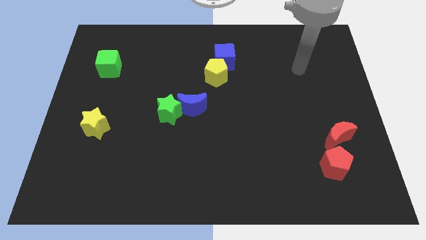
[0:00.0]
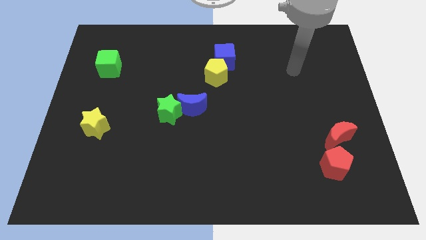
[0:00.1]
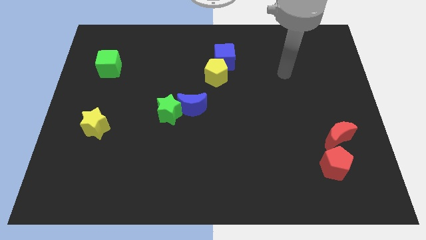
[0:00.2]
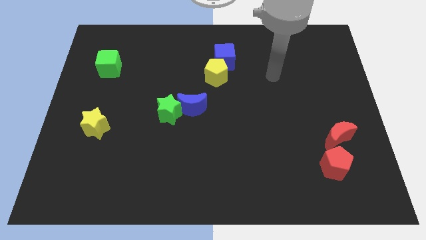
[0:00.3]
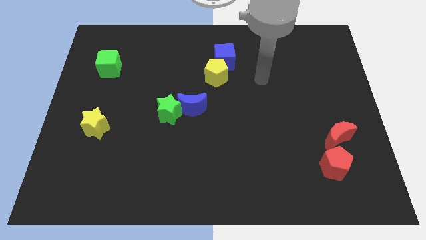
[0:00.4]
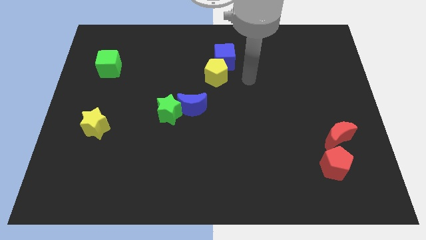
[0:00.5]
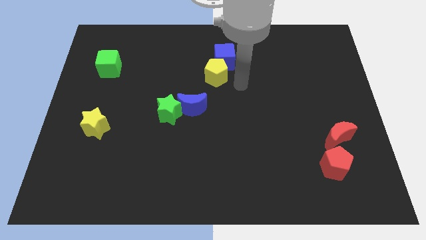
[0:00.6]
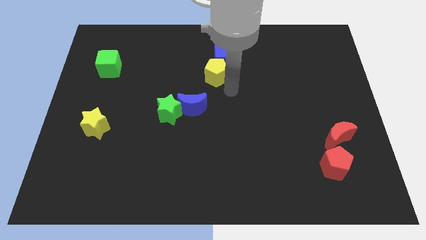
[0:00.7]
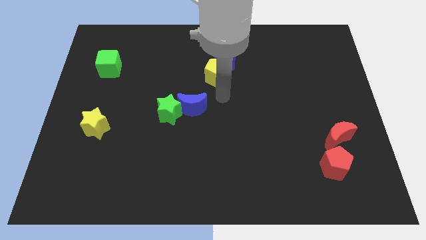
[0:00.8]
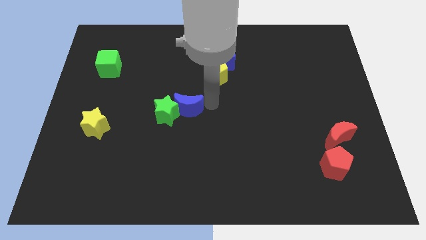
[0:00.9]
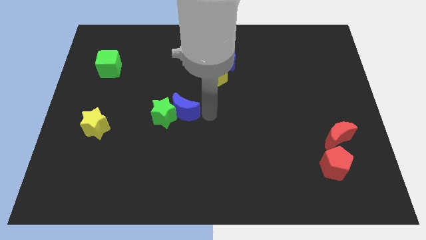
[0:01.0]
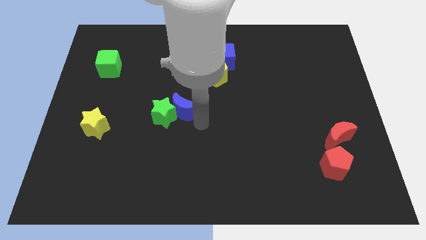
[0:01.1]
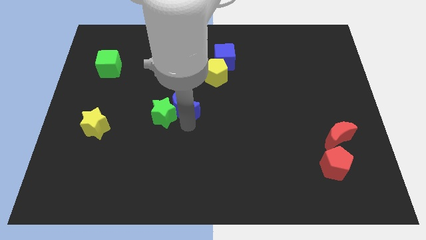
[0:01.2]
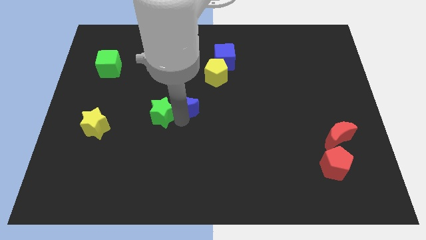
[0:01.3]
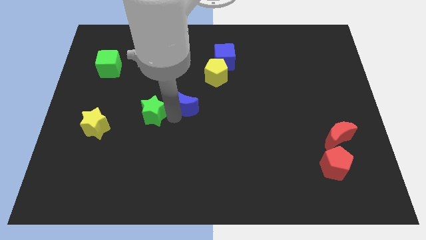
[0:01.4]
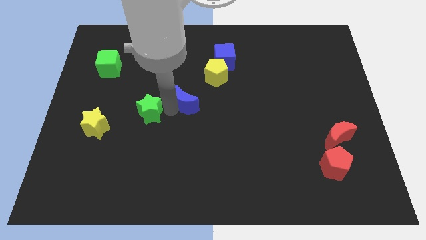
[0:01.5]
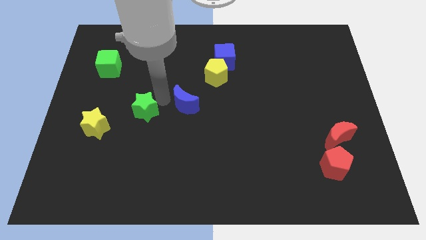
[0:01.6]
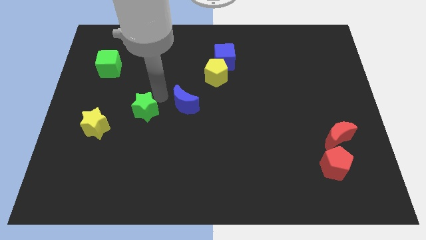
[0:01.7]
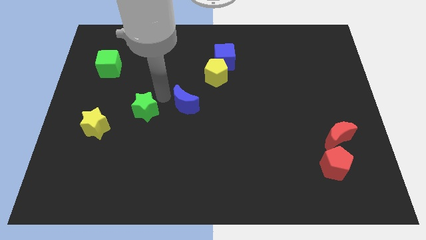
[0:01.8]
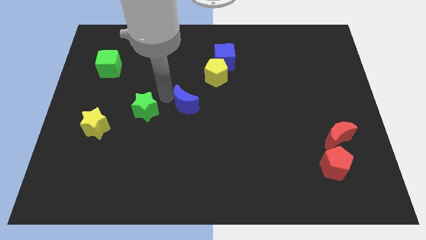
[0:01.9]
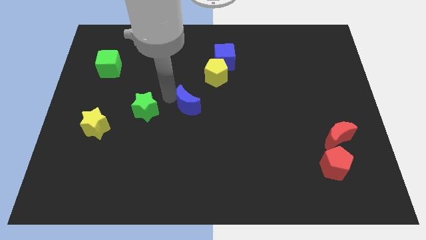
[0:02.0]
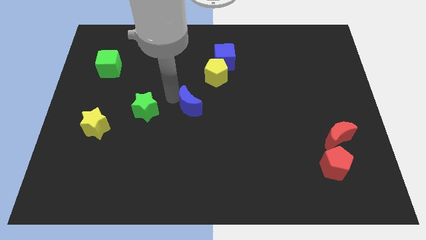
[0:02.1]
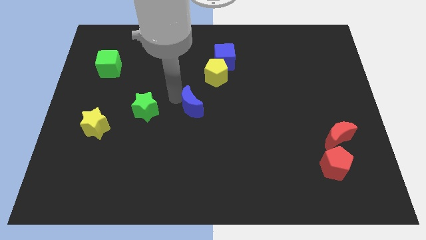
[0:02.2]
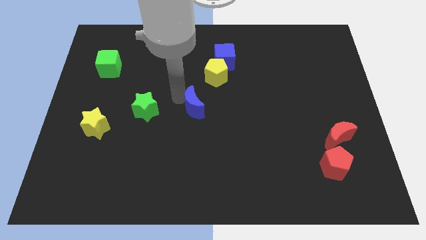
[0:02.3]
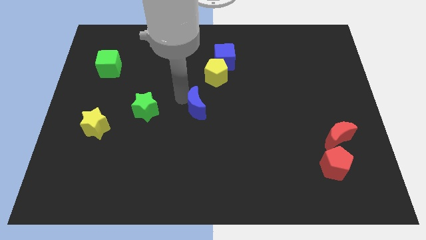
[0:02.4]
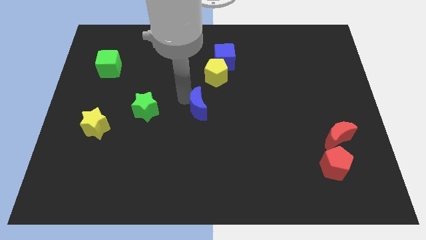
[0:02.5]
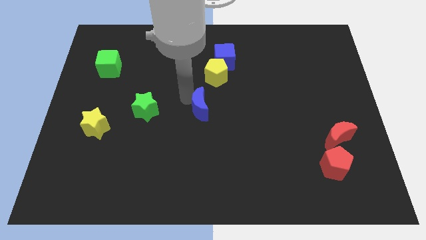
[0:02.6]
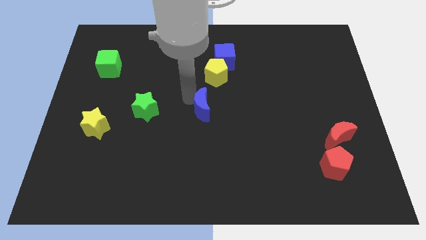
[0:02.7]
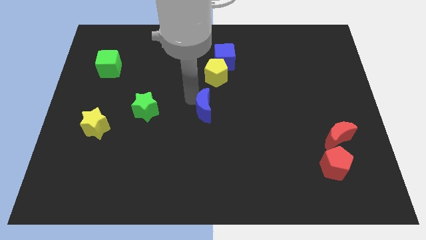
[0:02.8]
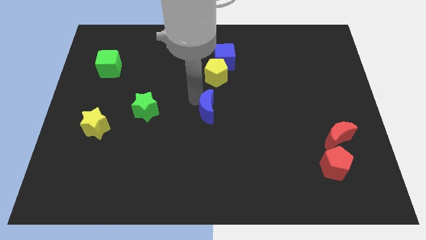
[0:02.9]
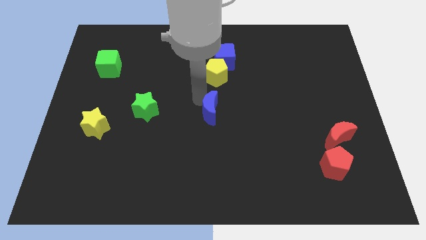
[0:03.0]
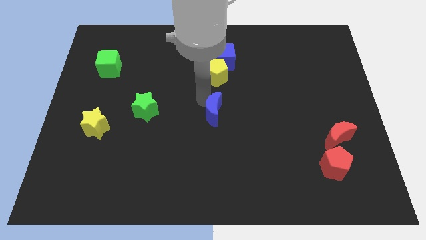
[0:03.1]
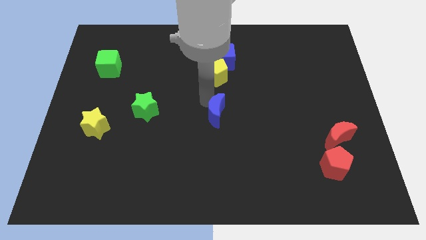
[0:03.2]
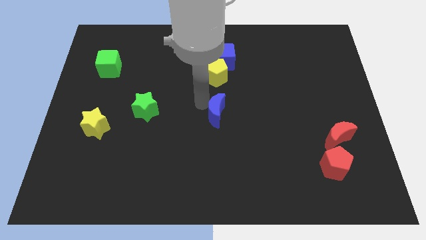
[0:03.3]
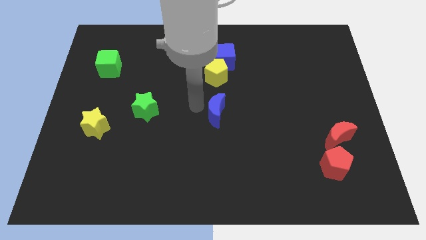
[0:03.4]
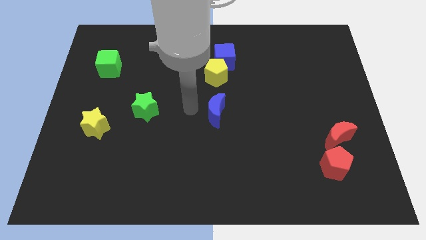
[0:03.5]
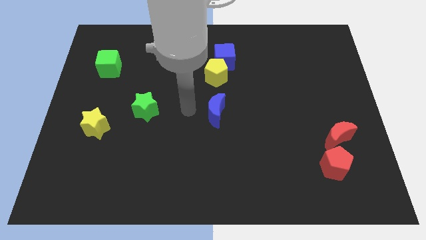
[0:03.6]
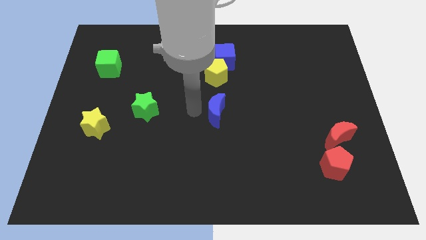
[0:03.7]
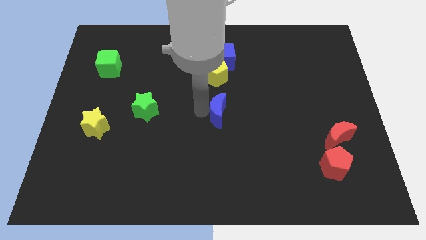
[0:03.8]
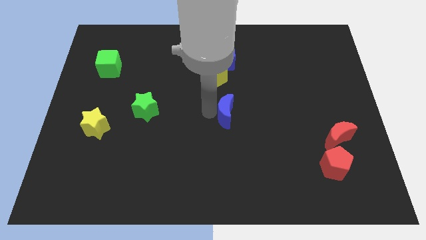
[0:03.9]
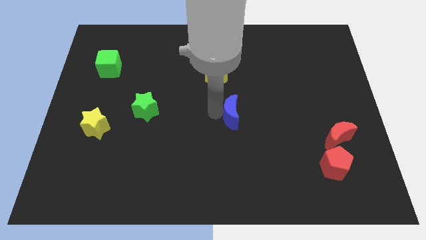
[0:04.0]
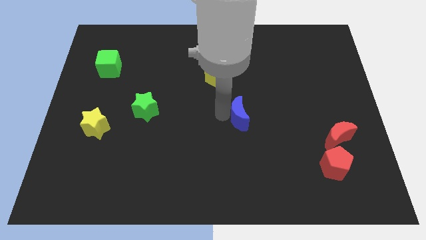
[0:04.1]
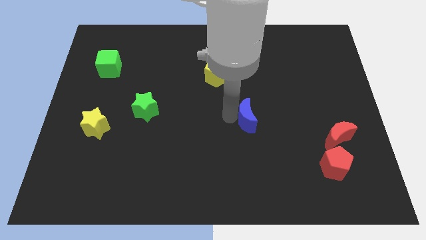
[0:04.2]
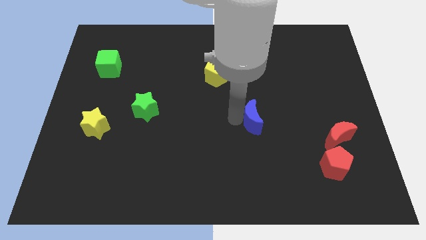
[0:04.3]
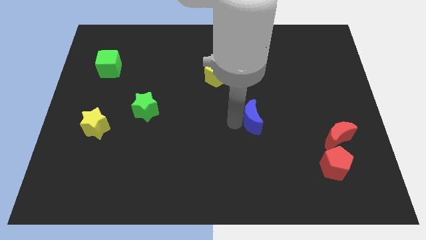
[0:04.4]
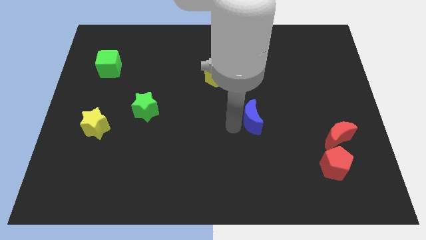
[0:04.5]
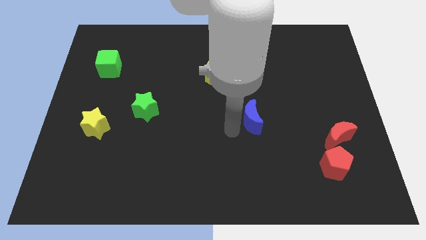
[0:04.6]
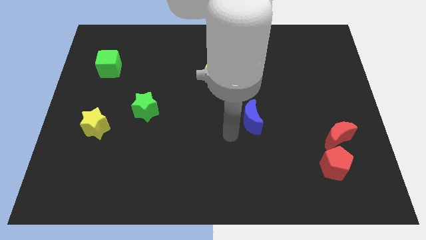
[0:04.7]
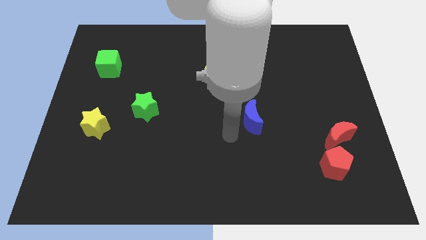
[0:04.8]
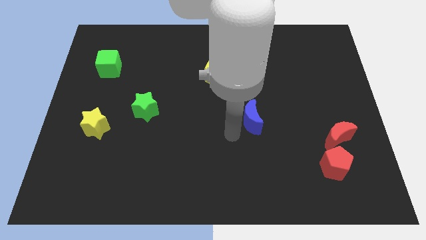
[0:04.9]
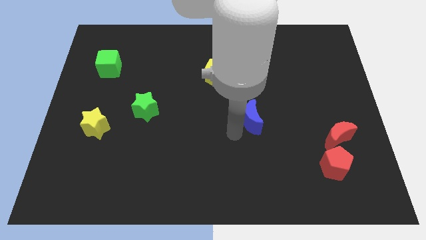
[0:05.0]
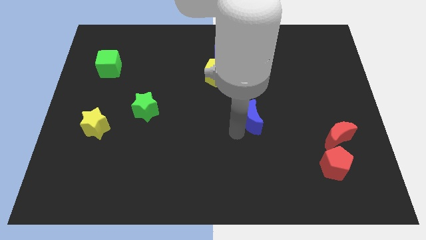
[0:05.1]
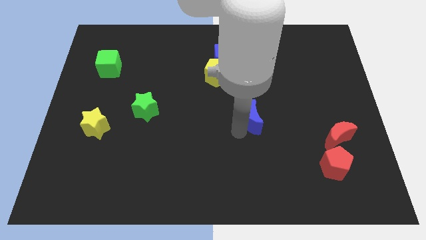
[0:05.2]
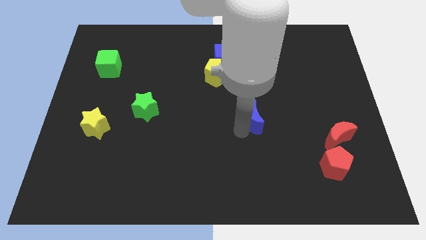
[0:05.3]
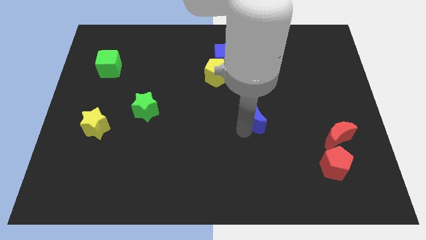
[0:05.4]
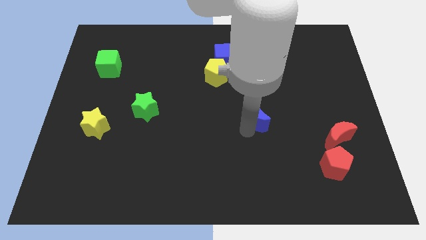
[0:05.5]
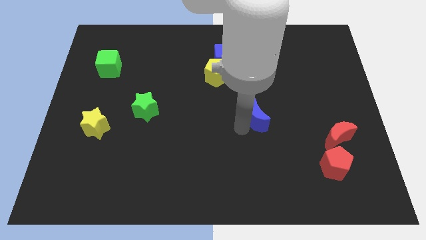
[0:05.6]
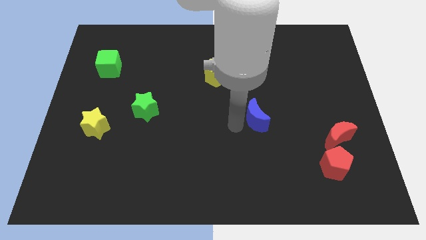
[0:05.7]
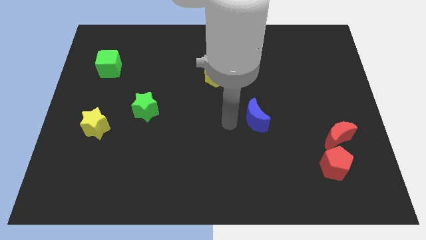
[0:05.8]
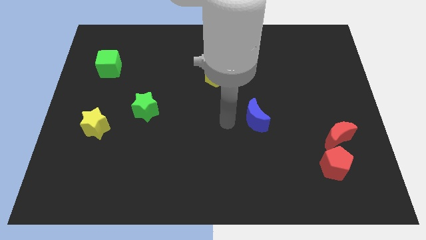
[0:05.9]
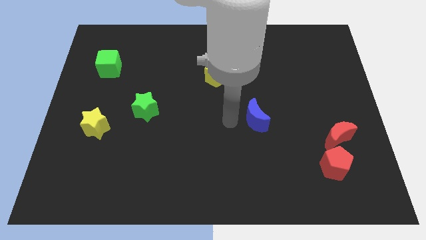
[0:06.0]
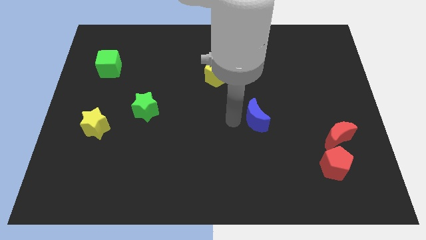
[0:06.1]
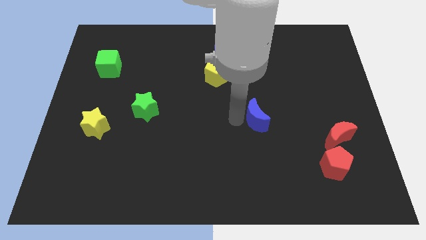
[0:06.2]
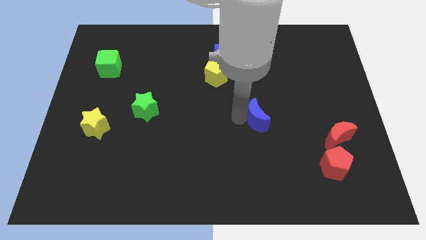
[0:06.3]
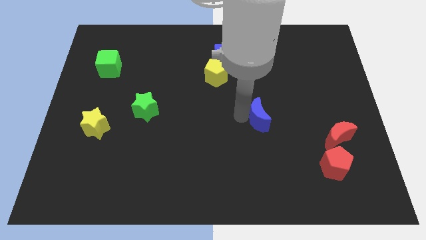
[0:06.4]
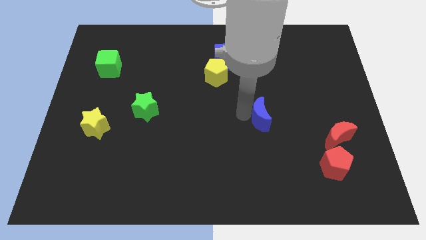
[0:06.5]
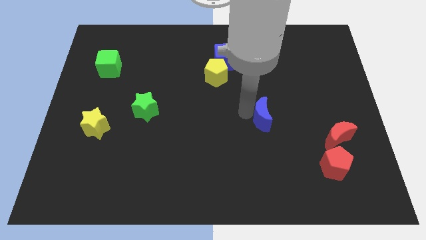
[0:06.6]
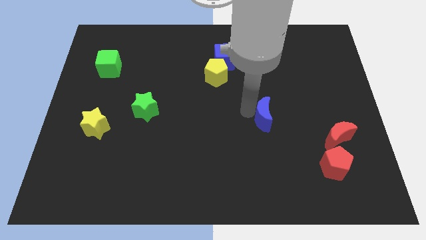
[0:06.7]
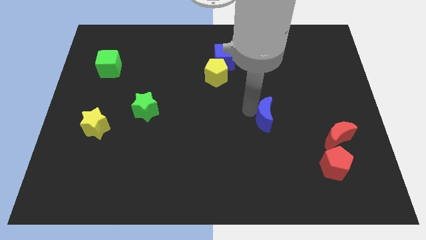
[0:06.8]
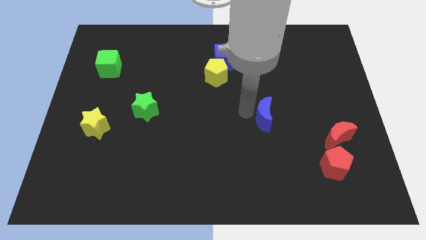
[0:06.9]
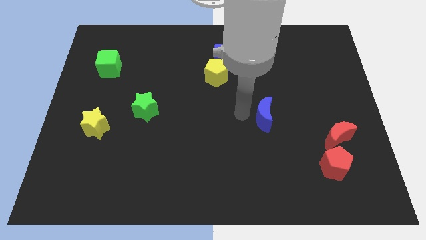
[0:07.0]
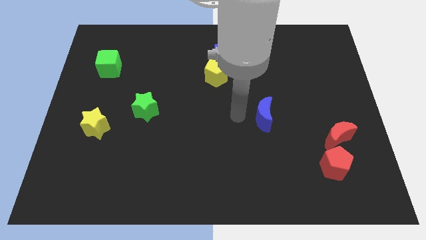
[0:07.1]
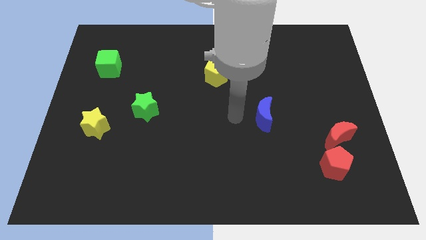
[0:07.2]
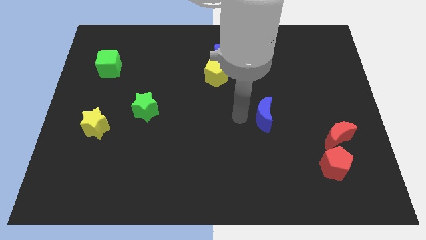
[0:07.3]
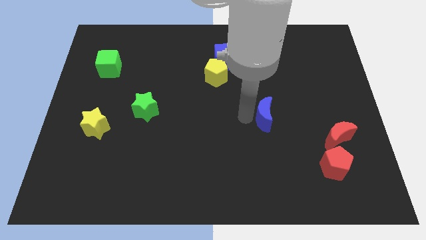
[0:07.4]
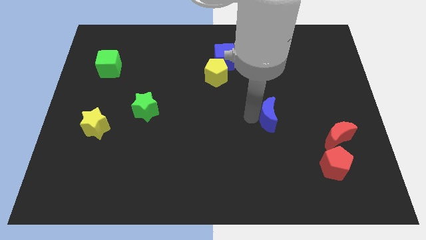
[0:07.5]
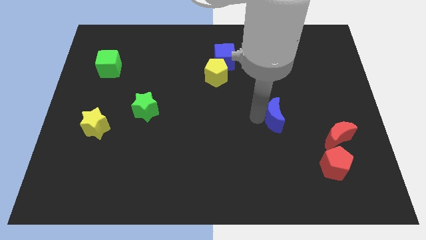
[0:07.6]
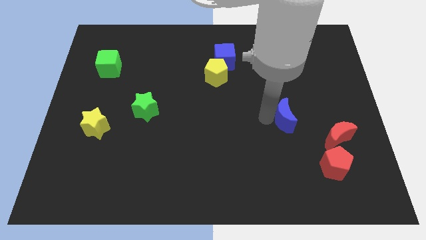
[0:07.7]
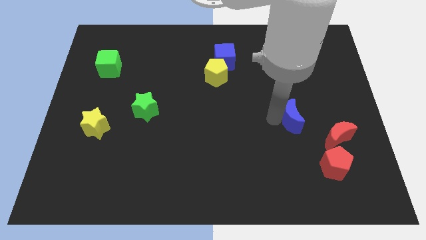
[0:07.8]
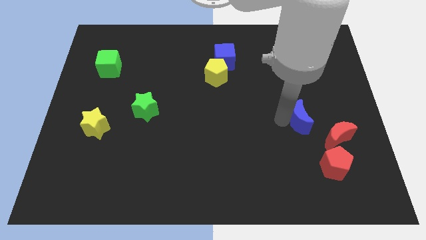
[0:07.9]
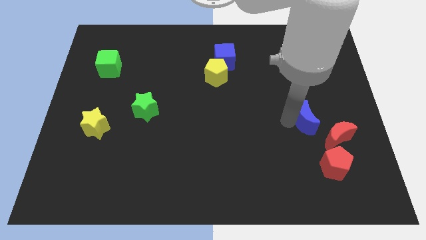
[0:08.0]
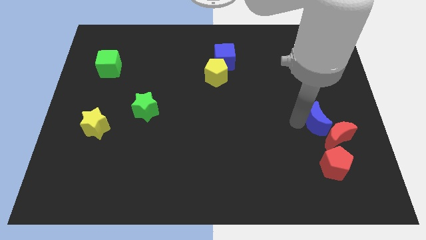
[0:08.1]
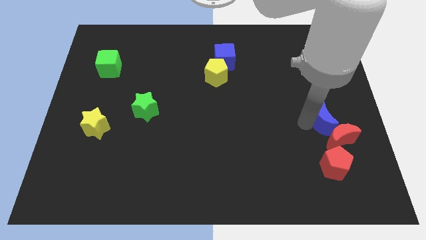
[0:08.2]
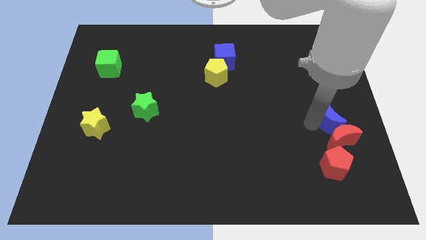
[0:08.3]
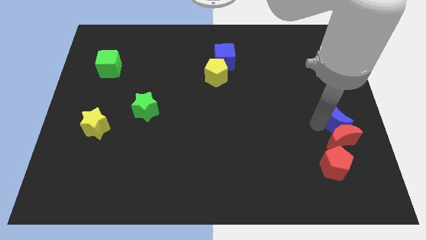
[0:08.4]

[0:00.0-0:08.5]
slide the blue moon to the right side
